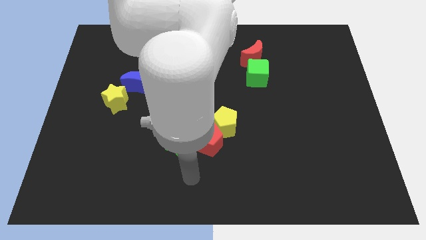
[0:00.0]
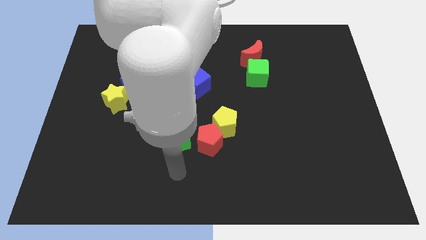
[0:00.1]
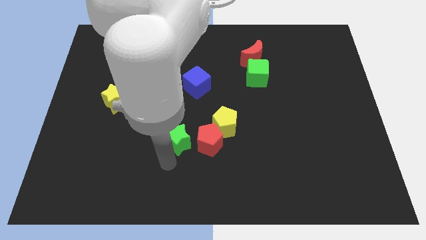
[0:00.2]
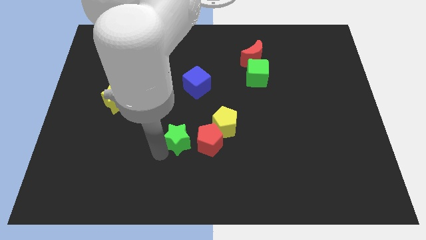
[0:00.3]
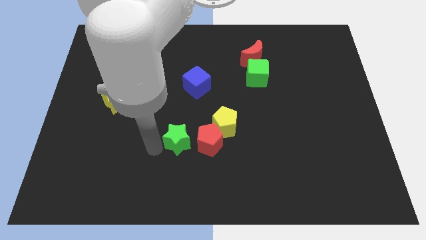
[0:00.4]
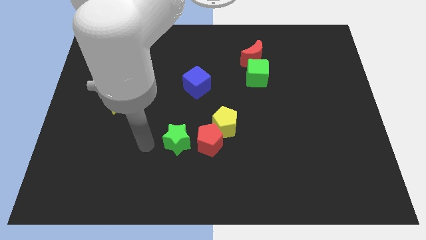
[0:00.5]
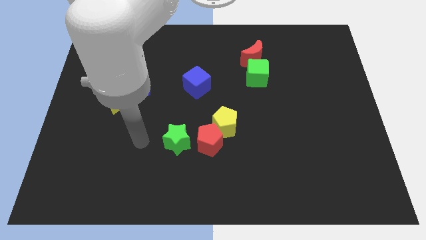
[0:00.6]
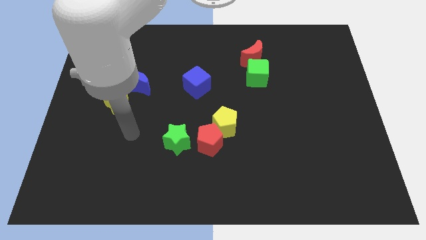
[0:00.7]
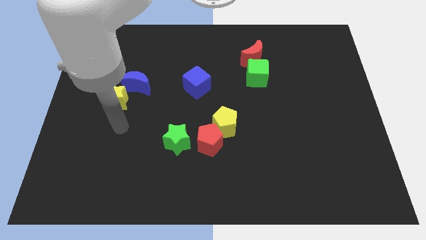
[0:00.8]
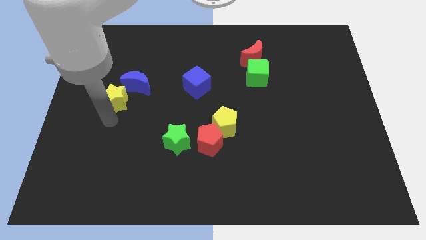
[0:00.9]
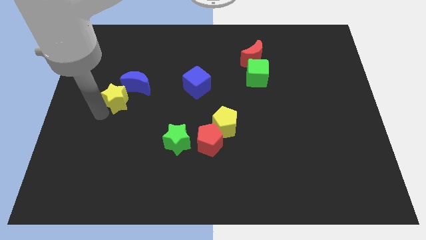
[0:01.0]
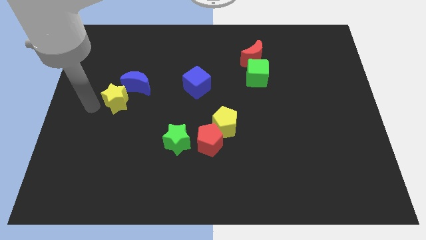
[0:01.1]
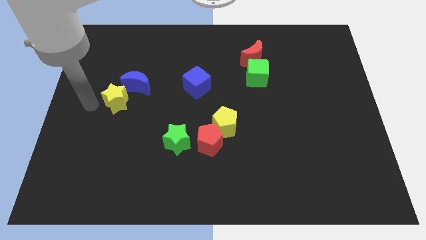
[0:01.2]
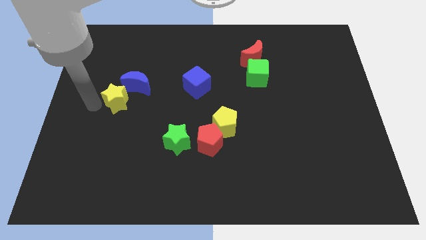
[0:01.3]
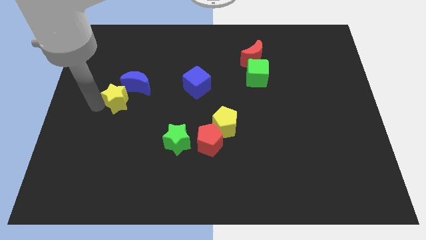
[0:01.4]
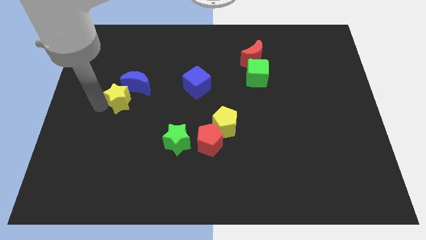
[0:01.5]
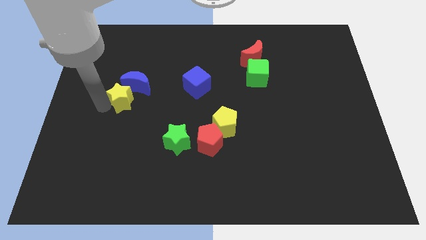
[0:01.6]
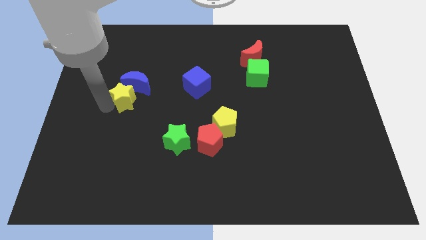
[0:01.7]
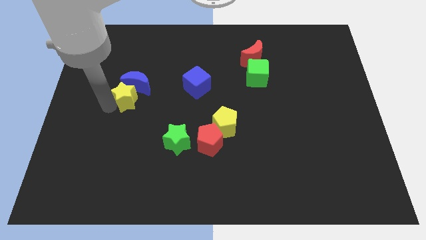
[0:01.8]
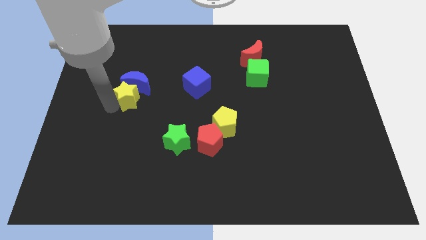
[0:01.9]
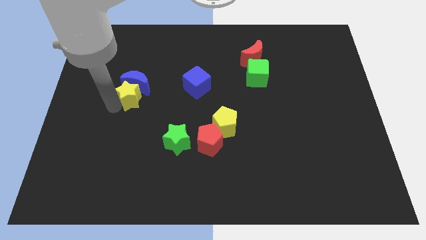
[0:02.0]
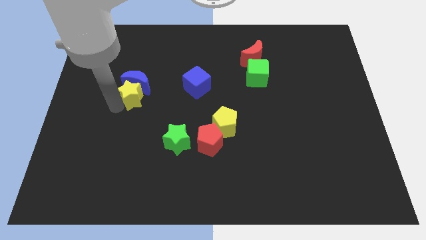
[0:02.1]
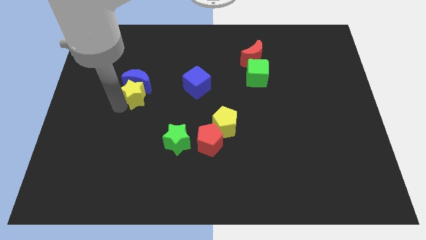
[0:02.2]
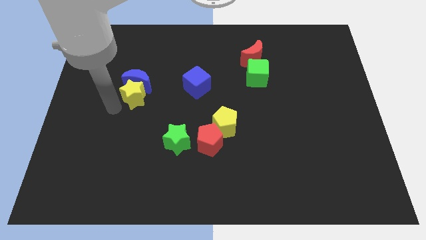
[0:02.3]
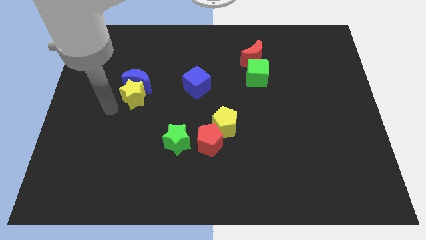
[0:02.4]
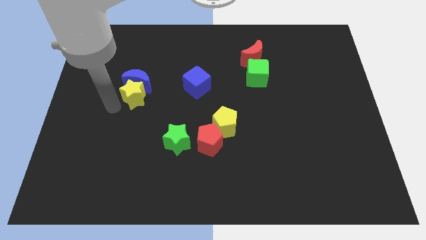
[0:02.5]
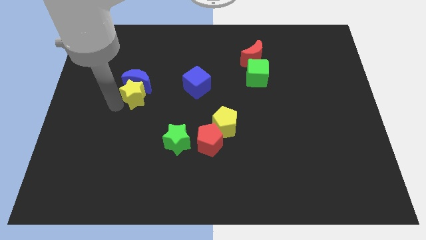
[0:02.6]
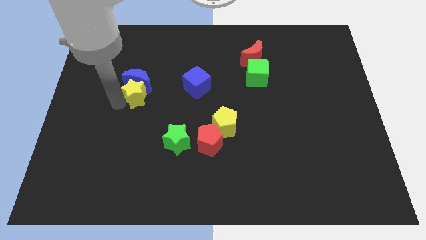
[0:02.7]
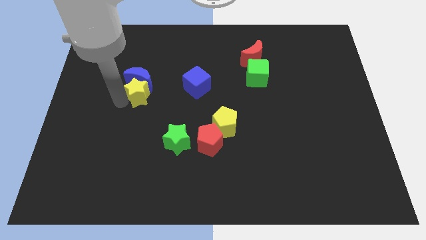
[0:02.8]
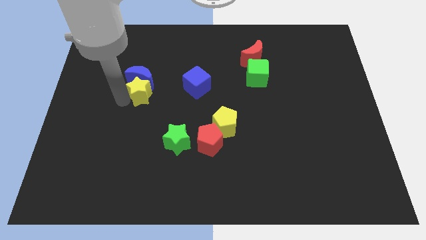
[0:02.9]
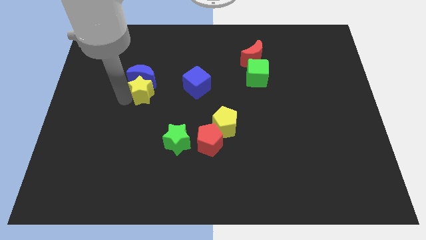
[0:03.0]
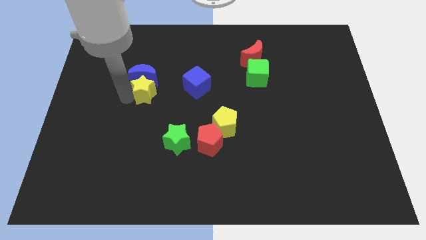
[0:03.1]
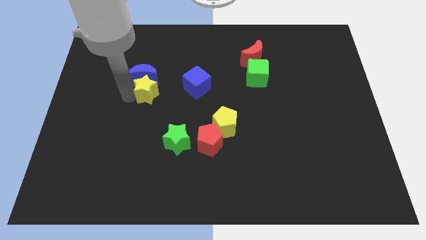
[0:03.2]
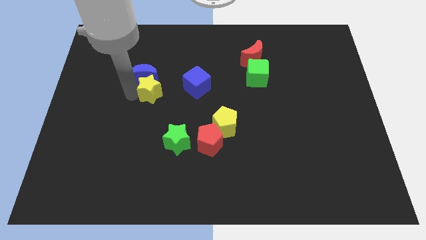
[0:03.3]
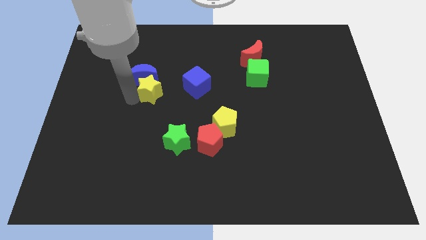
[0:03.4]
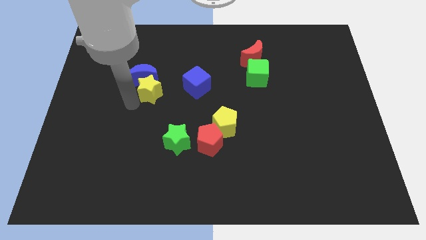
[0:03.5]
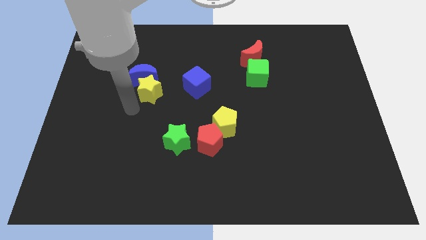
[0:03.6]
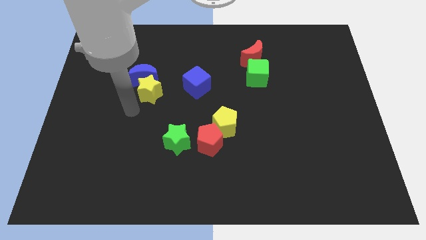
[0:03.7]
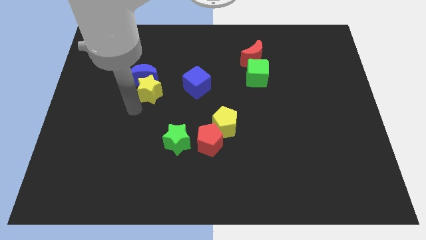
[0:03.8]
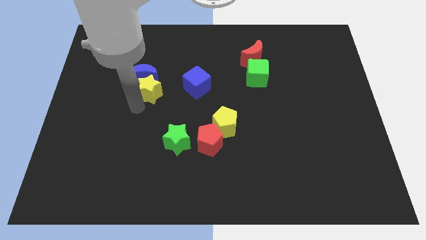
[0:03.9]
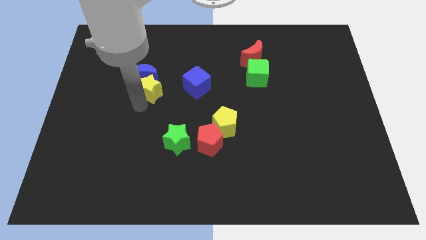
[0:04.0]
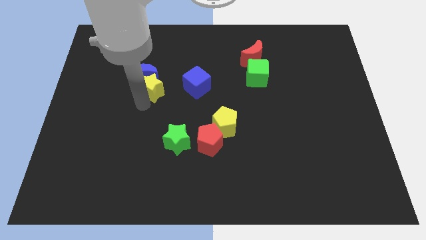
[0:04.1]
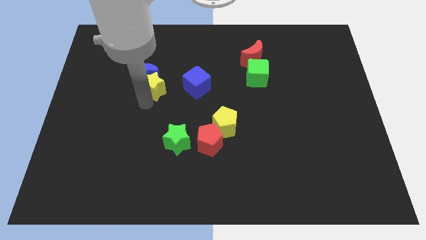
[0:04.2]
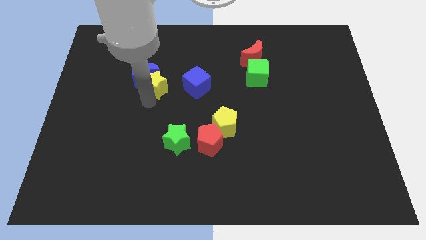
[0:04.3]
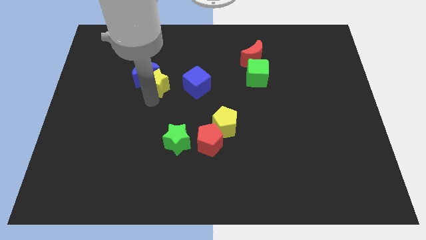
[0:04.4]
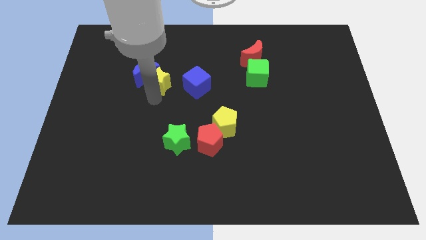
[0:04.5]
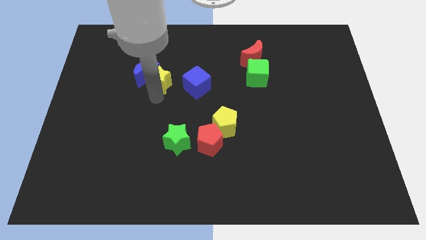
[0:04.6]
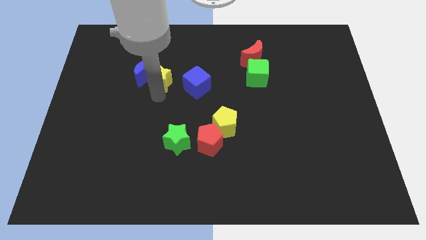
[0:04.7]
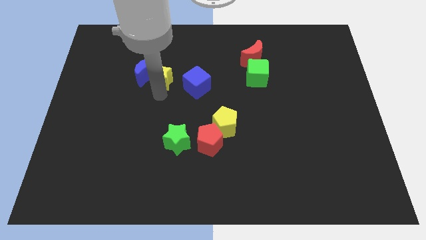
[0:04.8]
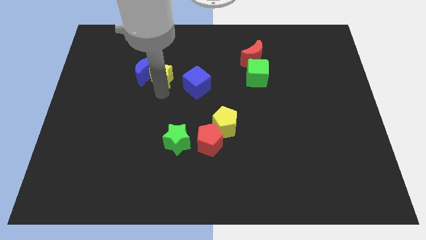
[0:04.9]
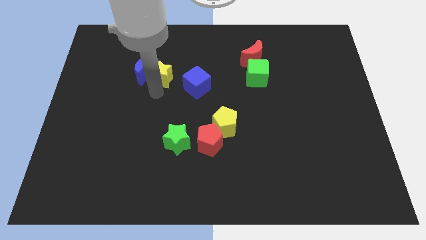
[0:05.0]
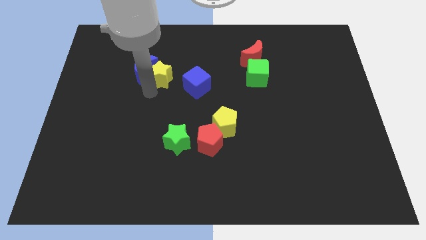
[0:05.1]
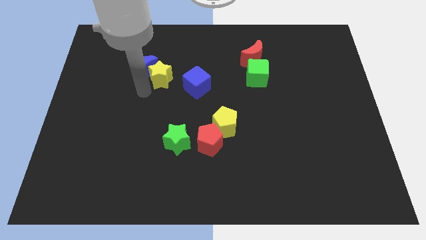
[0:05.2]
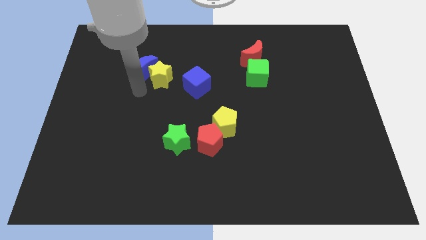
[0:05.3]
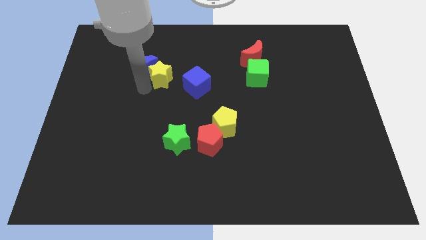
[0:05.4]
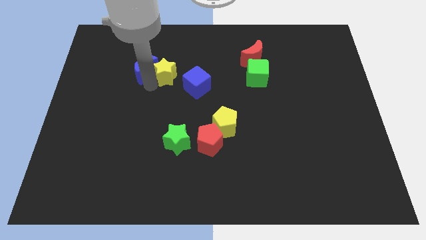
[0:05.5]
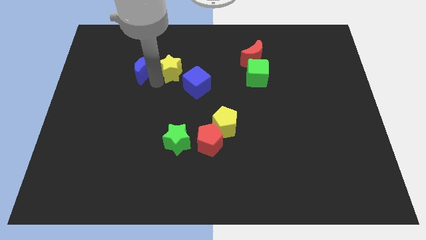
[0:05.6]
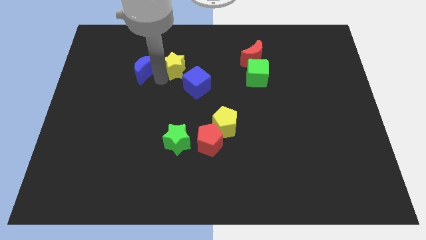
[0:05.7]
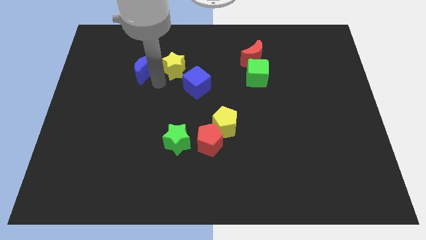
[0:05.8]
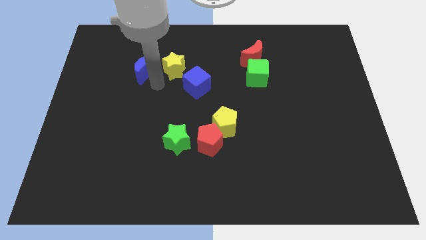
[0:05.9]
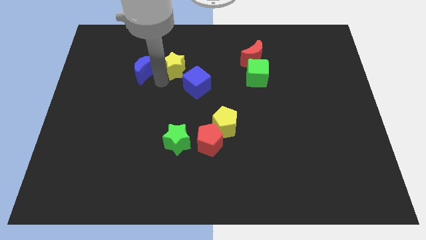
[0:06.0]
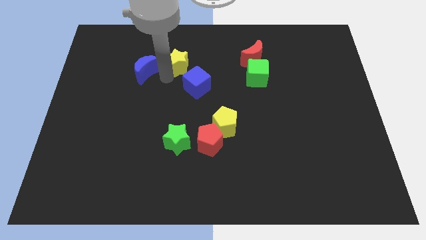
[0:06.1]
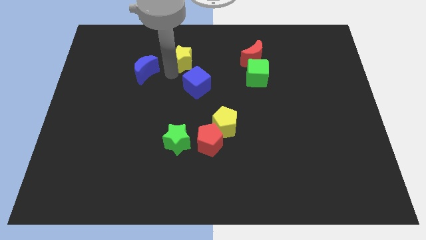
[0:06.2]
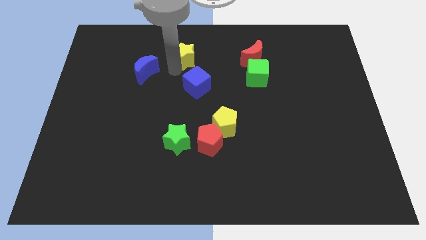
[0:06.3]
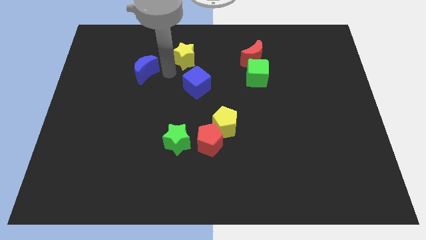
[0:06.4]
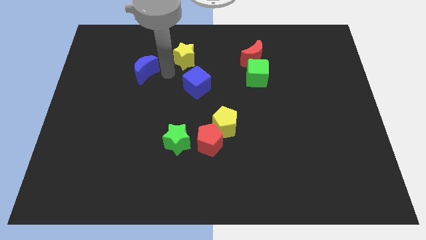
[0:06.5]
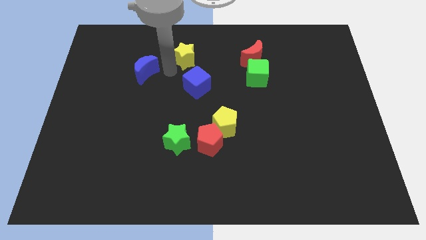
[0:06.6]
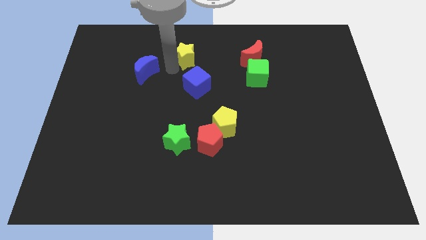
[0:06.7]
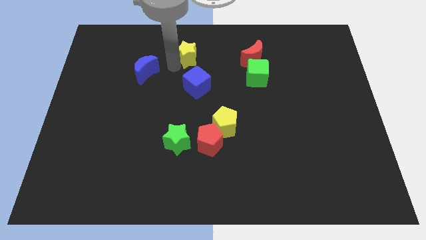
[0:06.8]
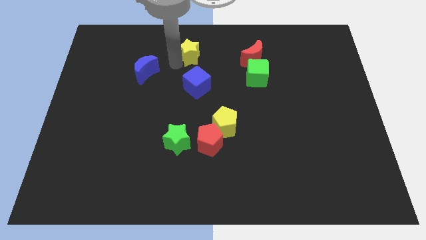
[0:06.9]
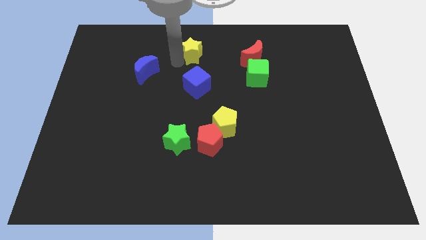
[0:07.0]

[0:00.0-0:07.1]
push the yellow star to the top
